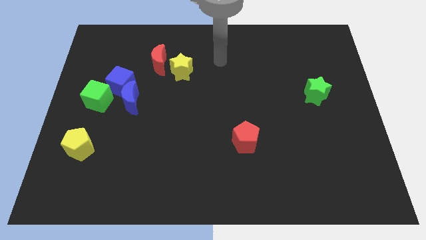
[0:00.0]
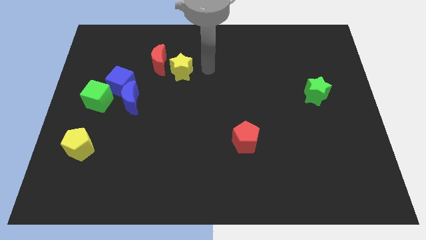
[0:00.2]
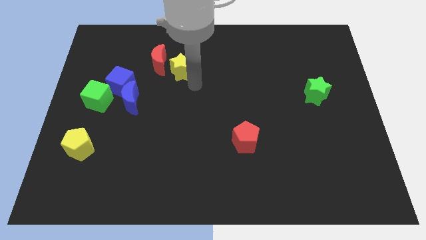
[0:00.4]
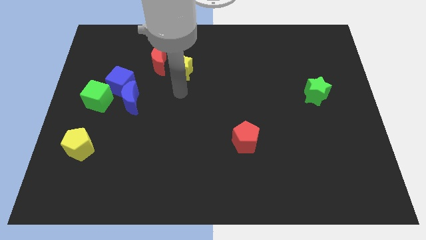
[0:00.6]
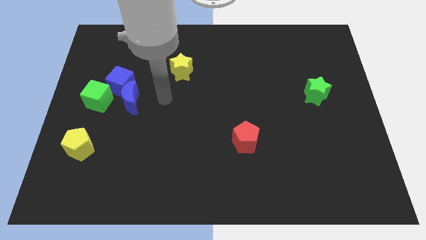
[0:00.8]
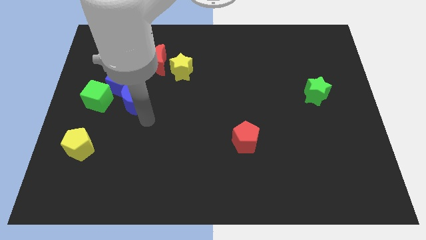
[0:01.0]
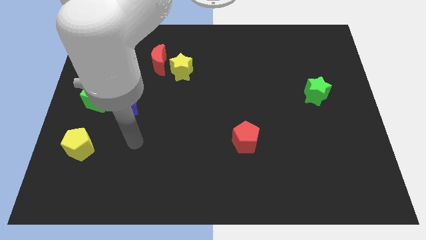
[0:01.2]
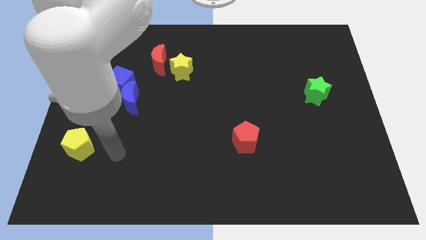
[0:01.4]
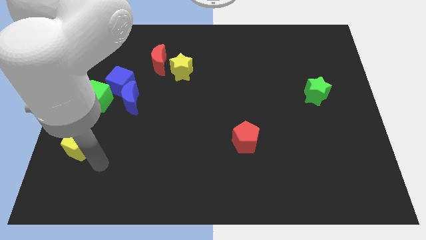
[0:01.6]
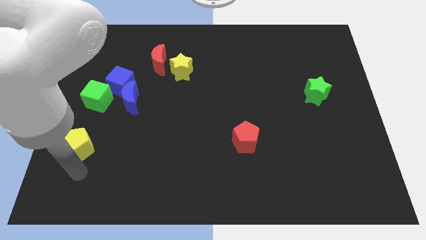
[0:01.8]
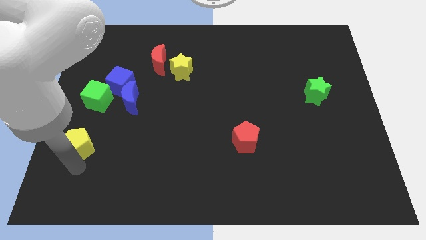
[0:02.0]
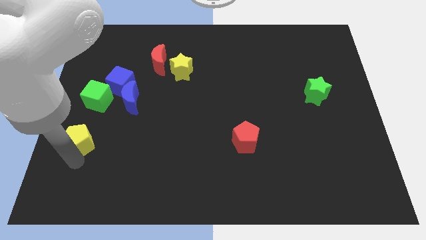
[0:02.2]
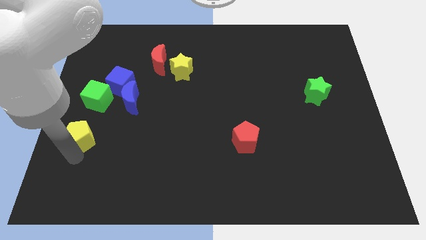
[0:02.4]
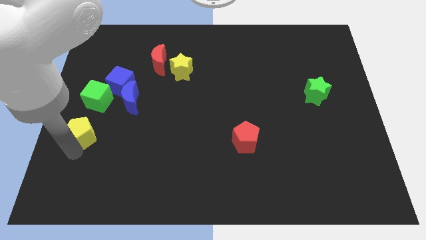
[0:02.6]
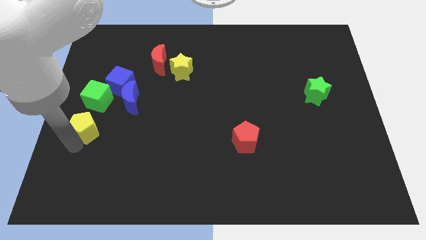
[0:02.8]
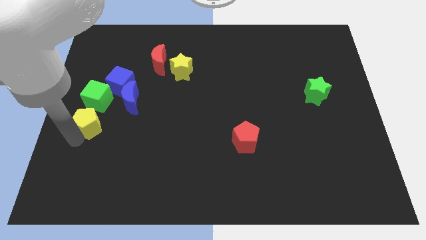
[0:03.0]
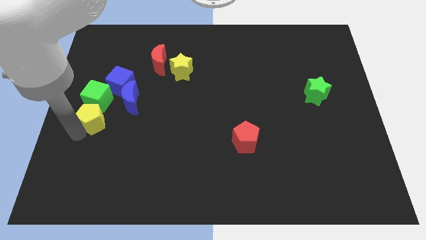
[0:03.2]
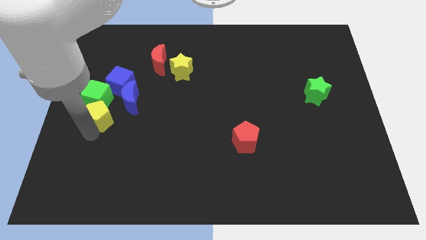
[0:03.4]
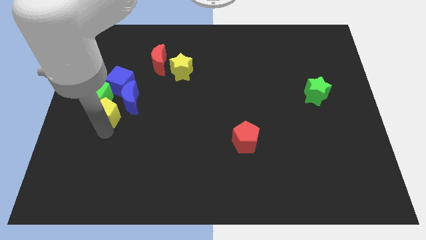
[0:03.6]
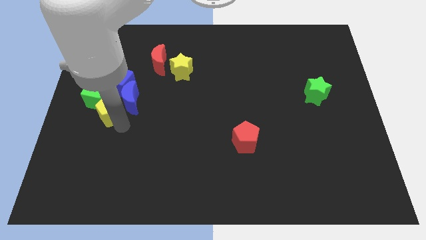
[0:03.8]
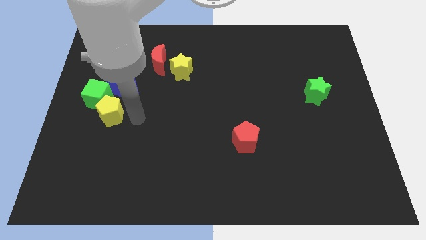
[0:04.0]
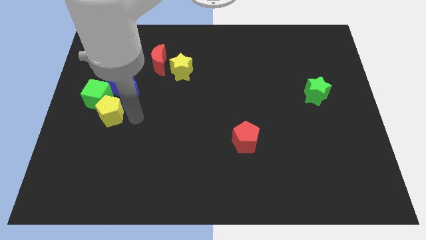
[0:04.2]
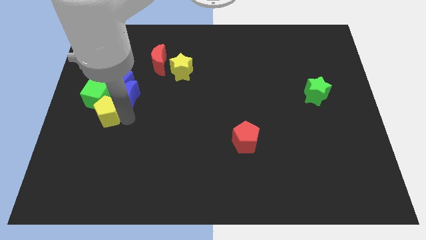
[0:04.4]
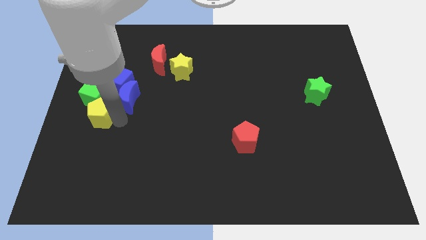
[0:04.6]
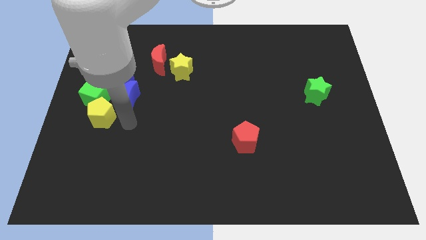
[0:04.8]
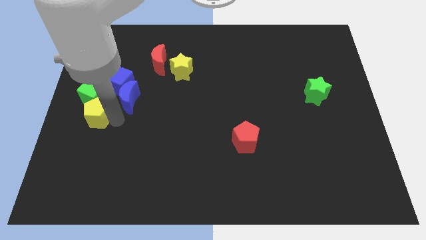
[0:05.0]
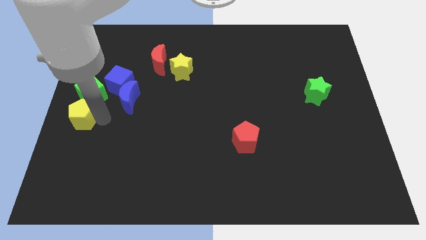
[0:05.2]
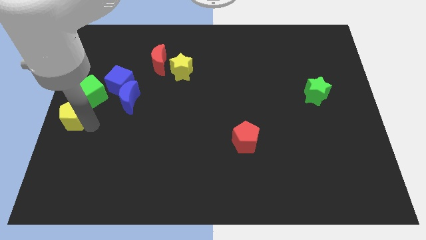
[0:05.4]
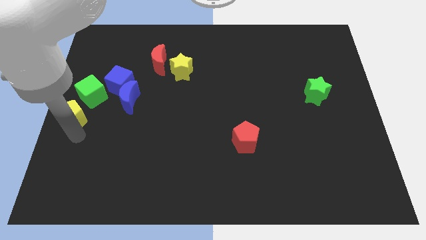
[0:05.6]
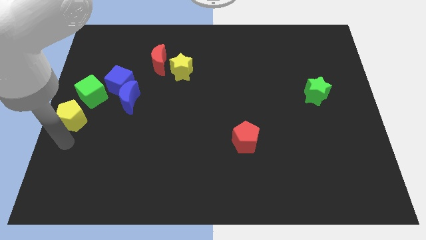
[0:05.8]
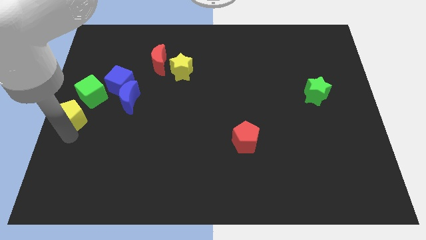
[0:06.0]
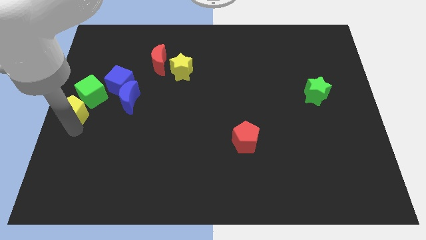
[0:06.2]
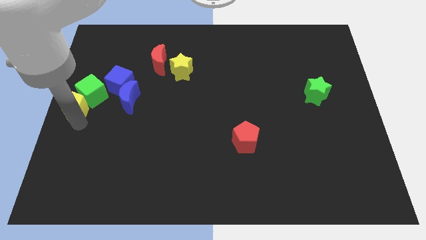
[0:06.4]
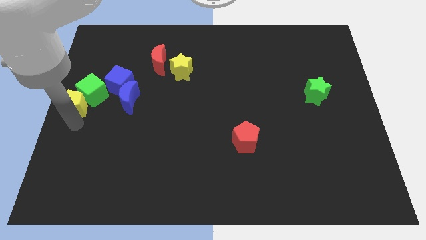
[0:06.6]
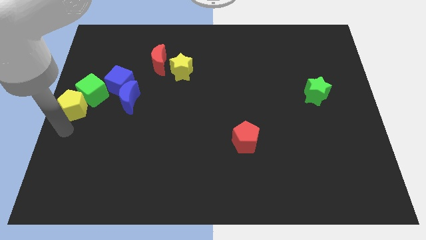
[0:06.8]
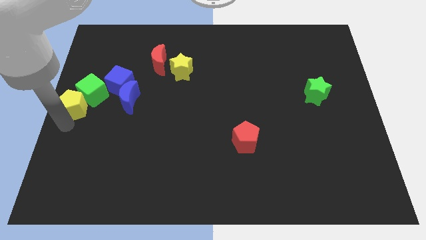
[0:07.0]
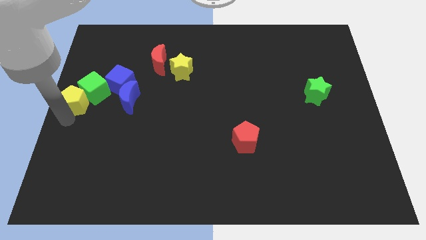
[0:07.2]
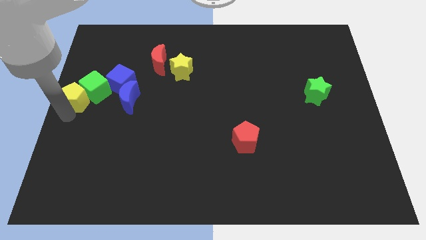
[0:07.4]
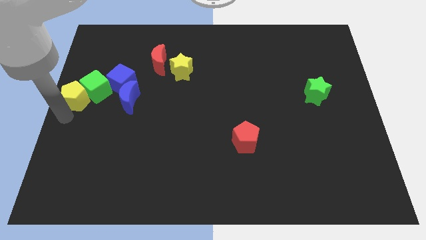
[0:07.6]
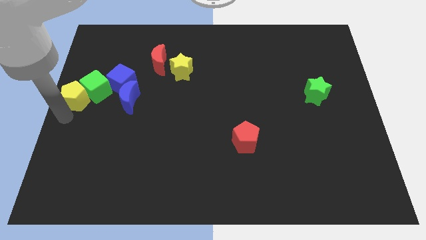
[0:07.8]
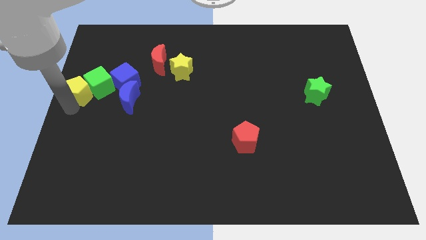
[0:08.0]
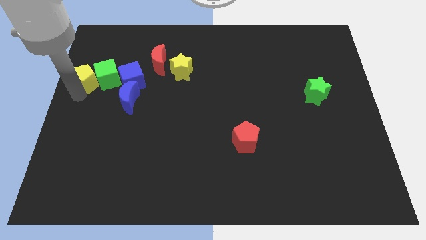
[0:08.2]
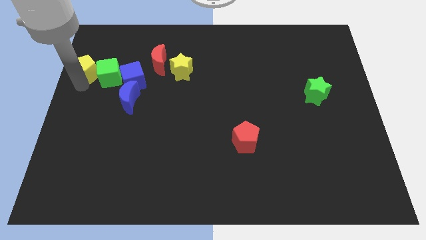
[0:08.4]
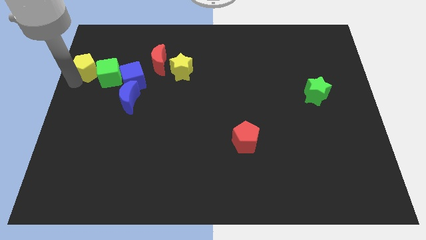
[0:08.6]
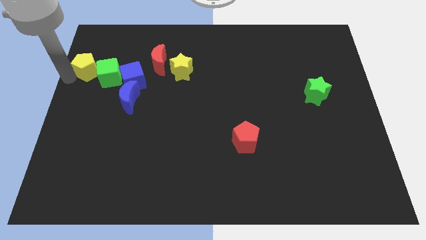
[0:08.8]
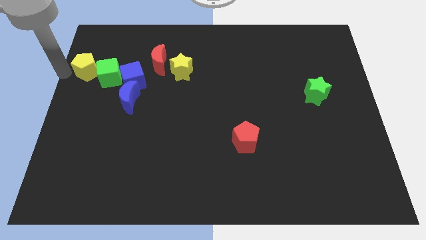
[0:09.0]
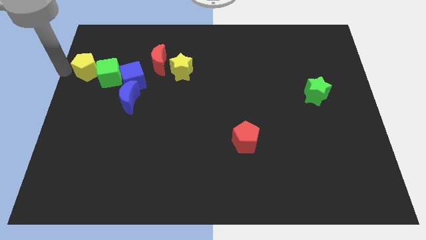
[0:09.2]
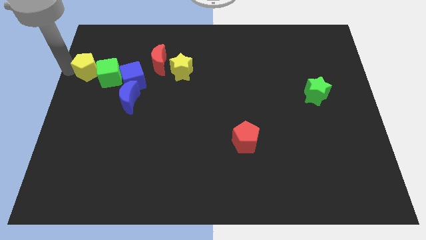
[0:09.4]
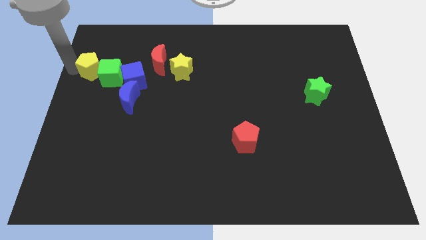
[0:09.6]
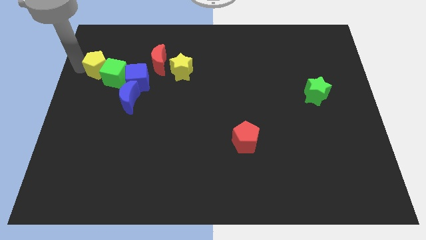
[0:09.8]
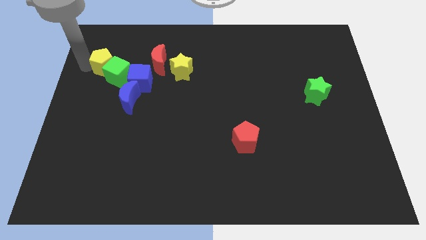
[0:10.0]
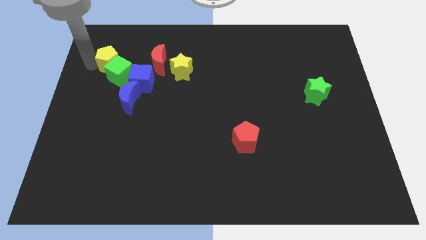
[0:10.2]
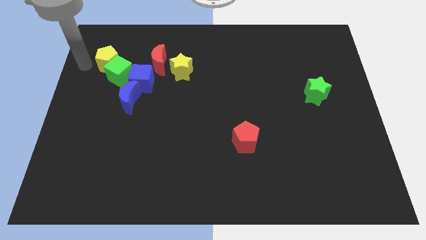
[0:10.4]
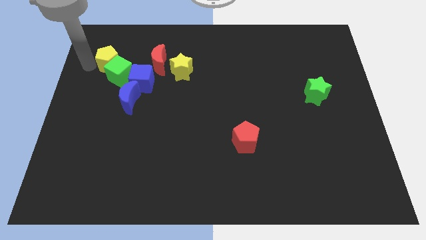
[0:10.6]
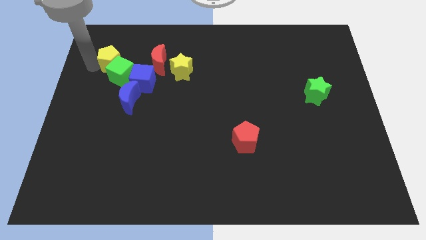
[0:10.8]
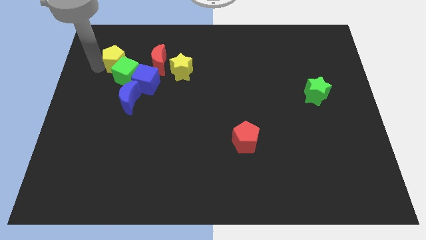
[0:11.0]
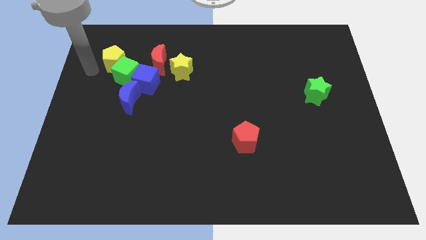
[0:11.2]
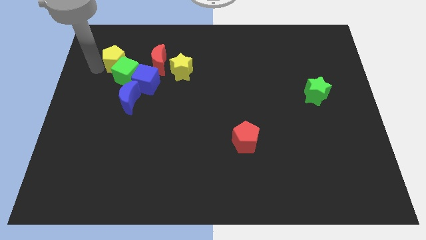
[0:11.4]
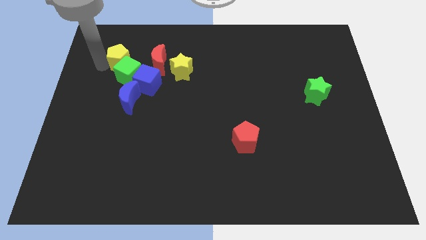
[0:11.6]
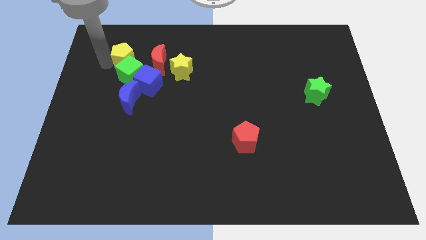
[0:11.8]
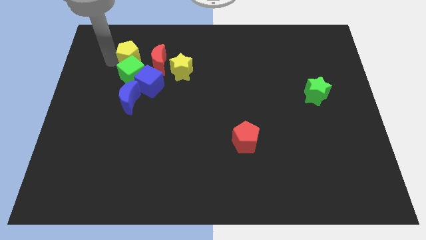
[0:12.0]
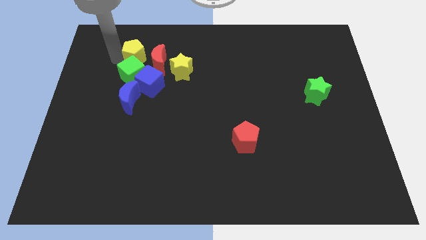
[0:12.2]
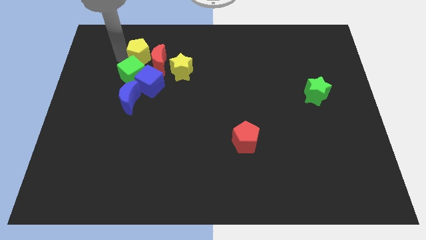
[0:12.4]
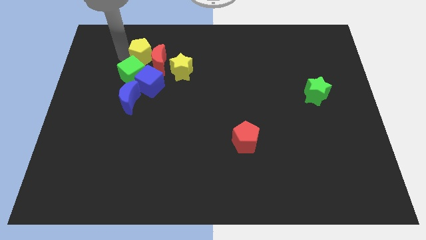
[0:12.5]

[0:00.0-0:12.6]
push the yellow pentagon to the top left of the yellow star

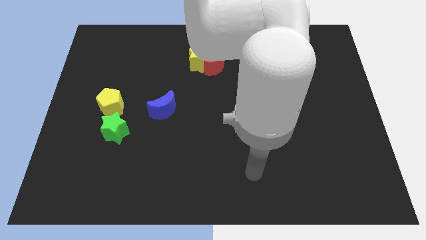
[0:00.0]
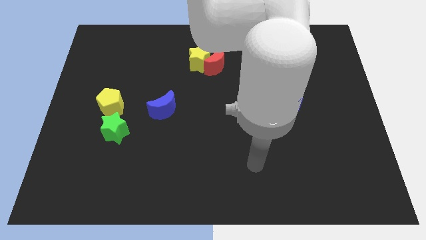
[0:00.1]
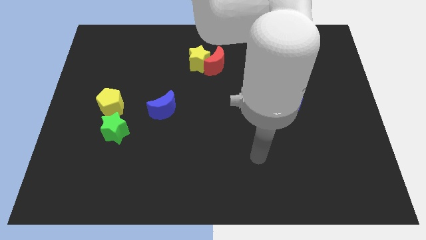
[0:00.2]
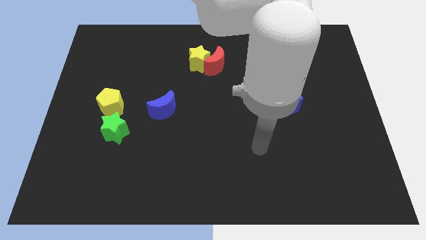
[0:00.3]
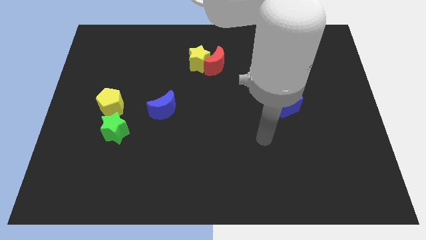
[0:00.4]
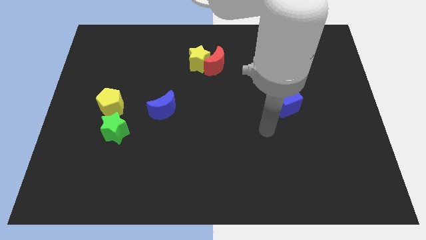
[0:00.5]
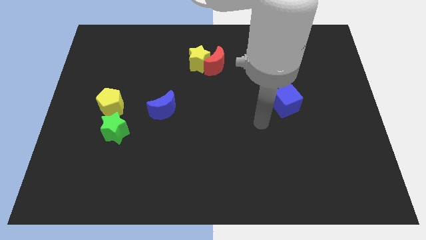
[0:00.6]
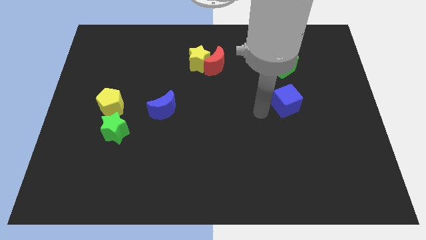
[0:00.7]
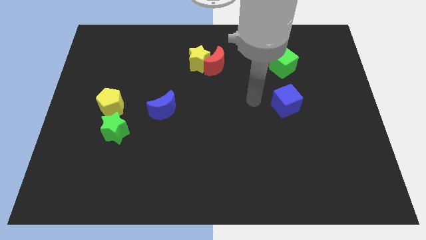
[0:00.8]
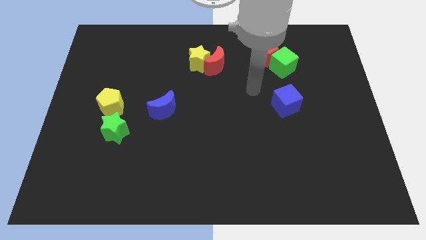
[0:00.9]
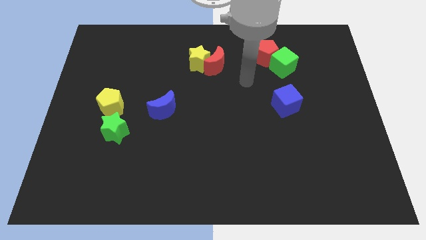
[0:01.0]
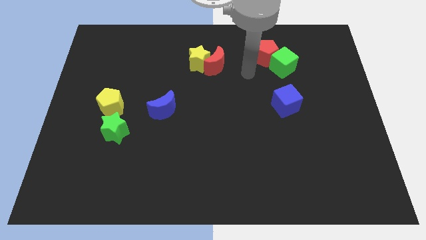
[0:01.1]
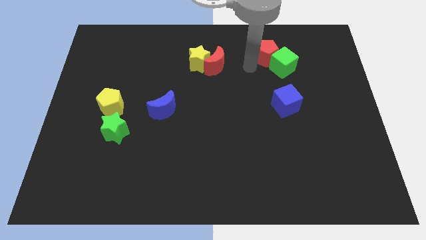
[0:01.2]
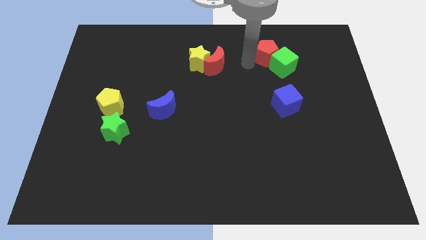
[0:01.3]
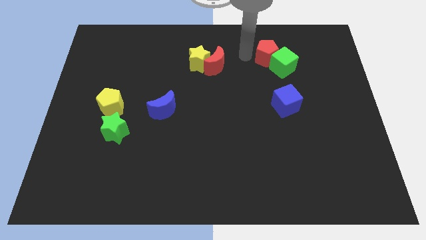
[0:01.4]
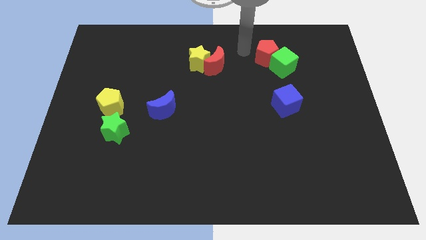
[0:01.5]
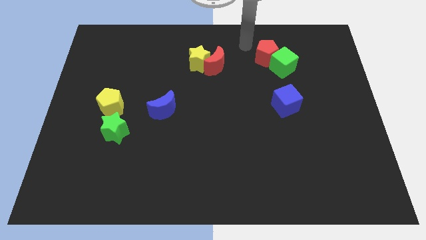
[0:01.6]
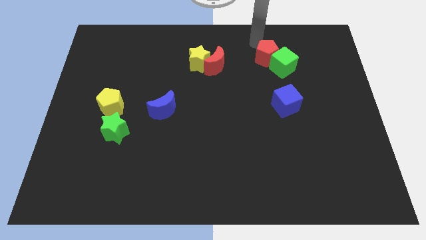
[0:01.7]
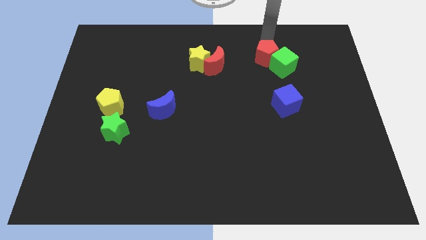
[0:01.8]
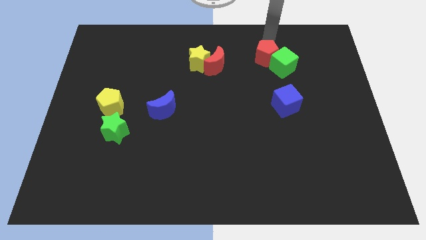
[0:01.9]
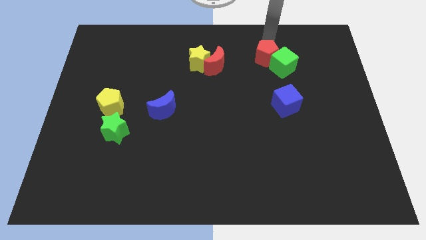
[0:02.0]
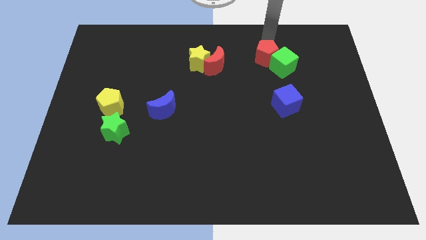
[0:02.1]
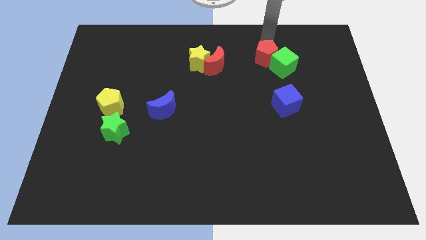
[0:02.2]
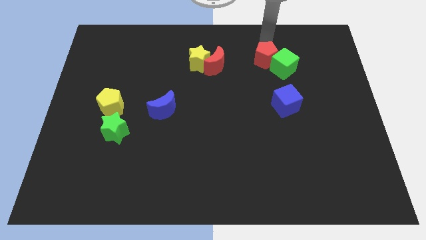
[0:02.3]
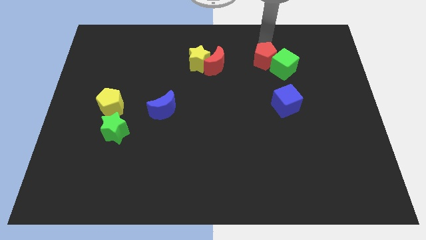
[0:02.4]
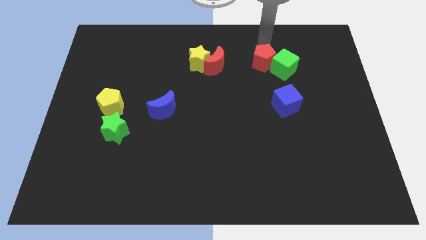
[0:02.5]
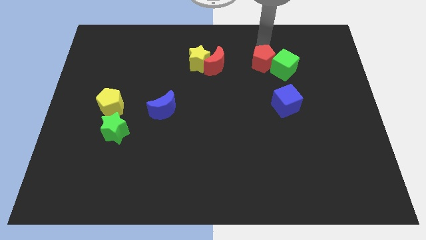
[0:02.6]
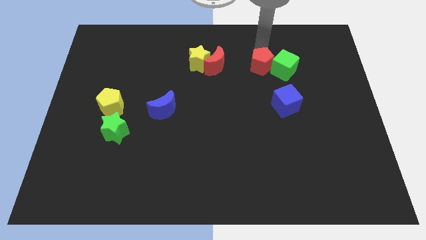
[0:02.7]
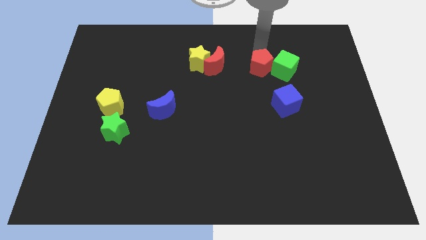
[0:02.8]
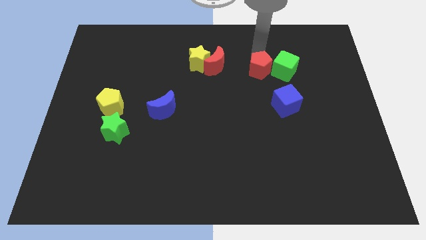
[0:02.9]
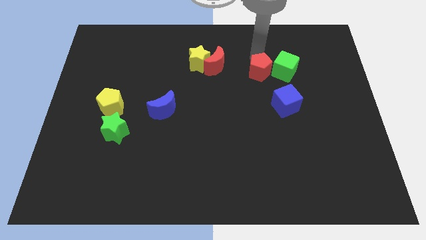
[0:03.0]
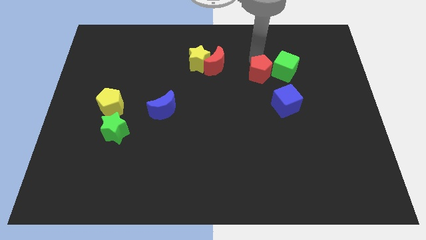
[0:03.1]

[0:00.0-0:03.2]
slide the red pentagon to the top left side of the blue cube
